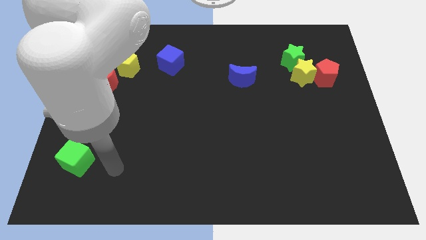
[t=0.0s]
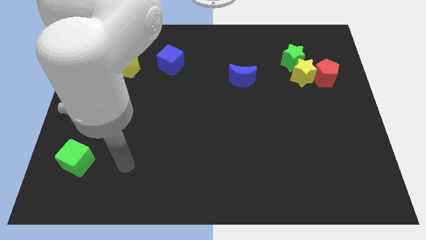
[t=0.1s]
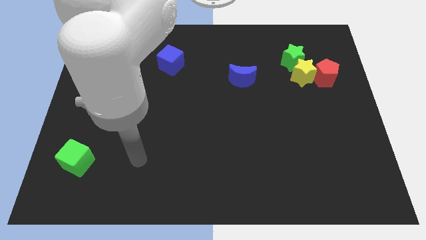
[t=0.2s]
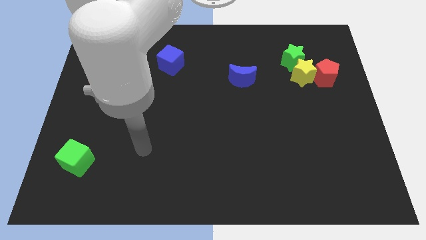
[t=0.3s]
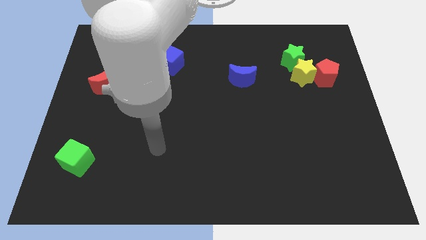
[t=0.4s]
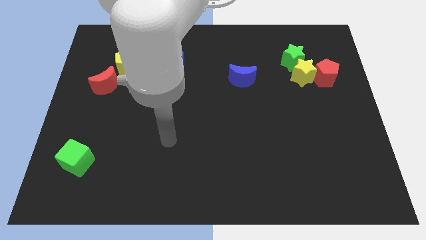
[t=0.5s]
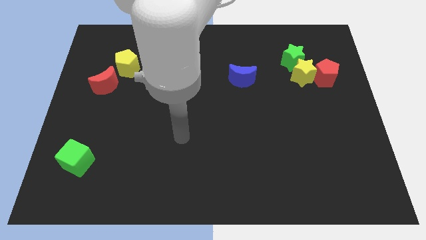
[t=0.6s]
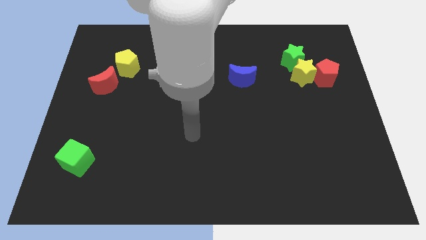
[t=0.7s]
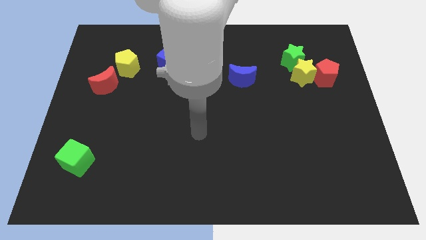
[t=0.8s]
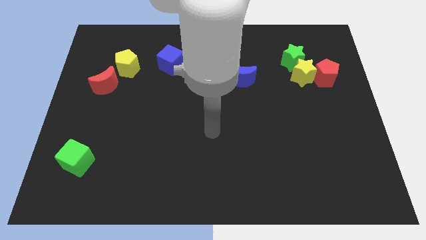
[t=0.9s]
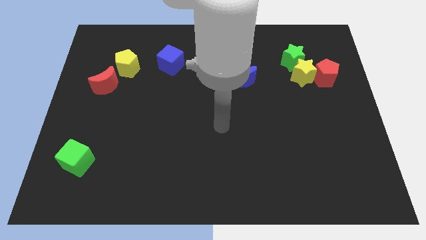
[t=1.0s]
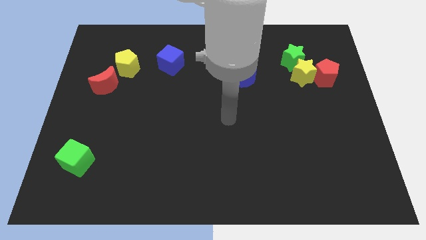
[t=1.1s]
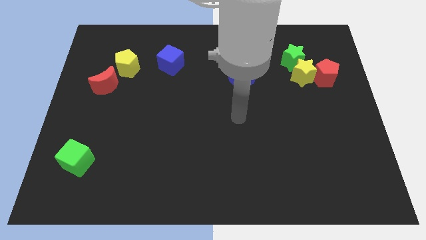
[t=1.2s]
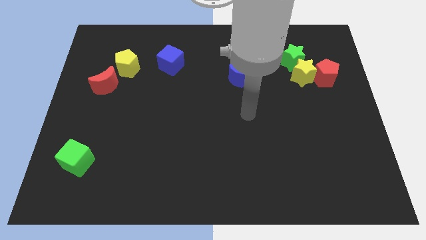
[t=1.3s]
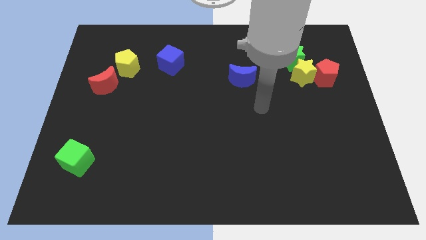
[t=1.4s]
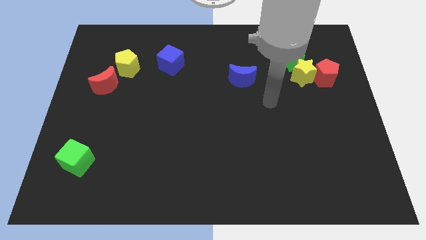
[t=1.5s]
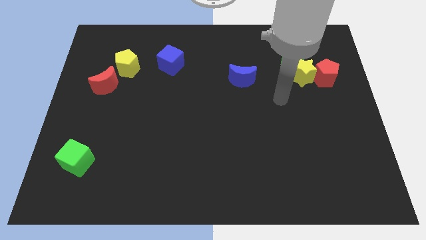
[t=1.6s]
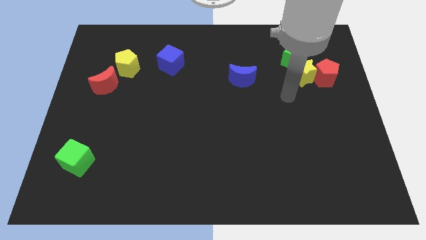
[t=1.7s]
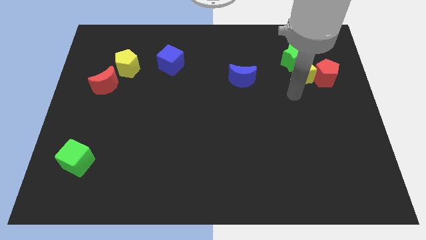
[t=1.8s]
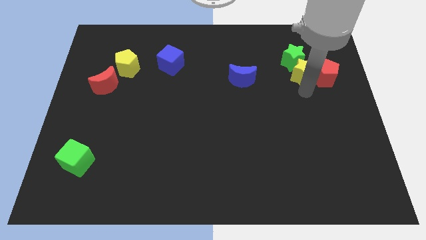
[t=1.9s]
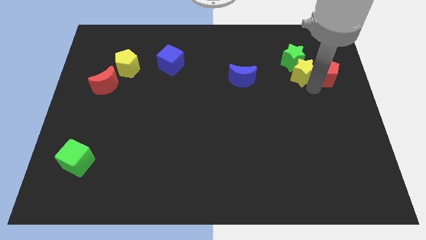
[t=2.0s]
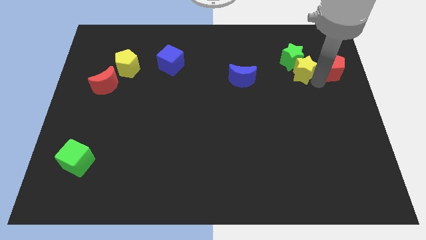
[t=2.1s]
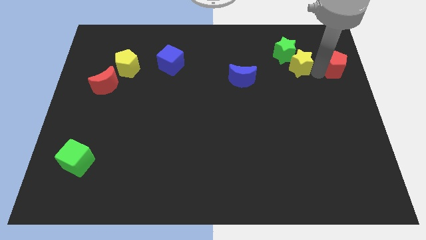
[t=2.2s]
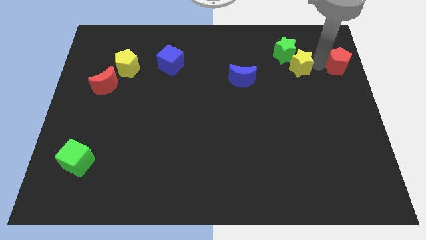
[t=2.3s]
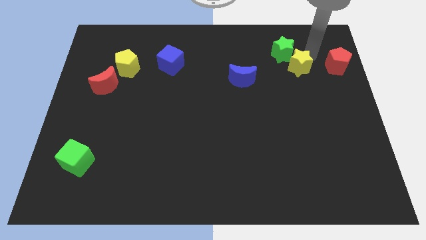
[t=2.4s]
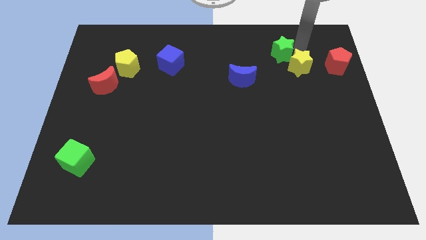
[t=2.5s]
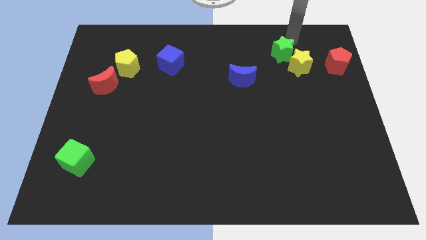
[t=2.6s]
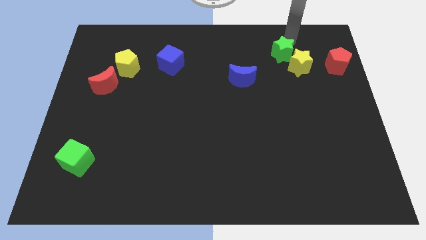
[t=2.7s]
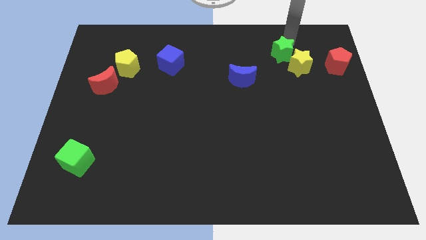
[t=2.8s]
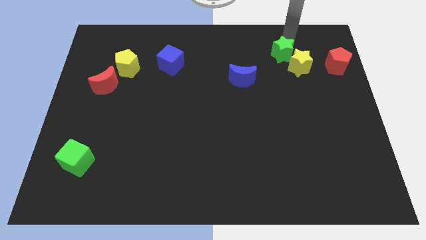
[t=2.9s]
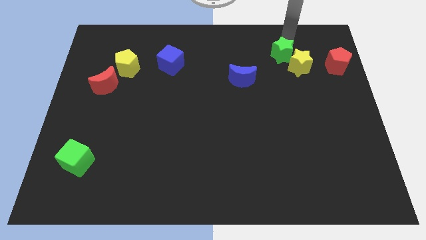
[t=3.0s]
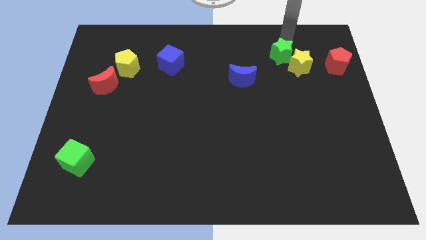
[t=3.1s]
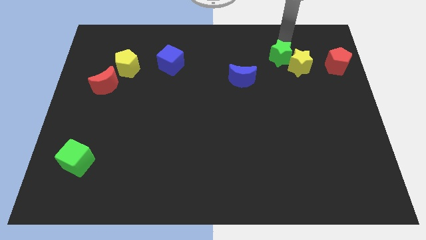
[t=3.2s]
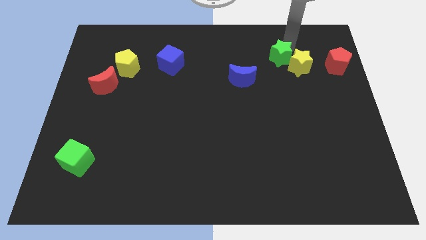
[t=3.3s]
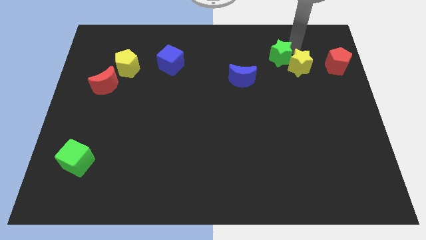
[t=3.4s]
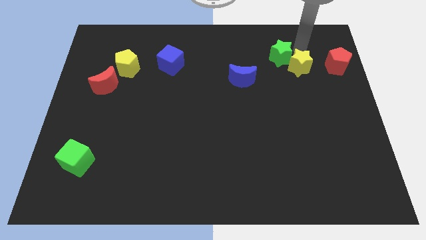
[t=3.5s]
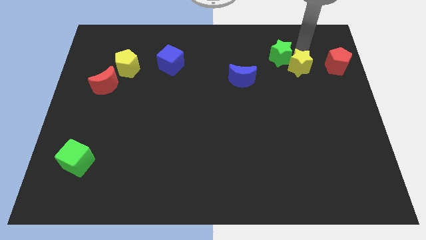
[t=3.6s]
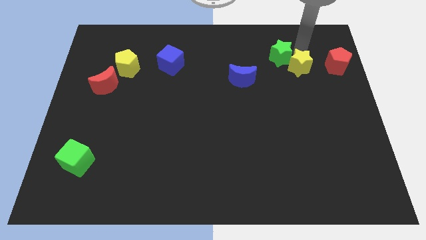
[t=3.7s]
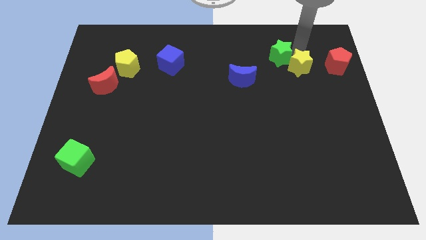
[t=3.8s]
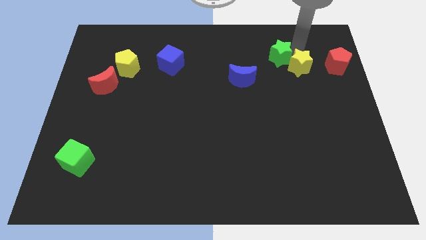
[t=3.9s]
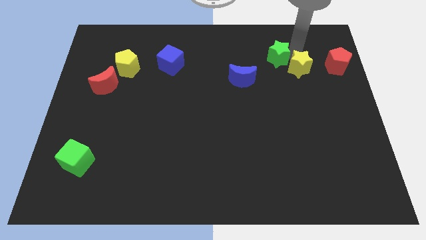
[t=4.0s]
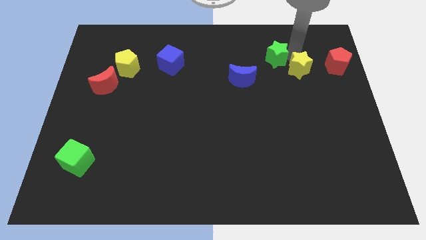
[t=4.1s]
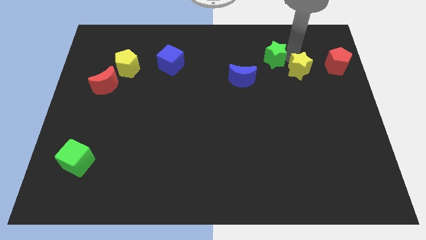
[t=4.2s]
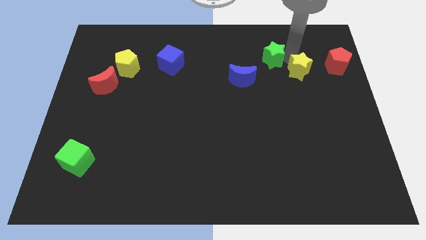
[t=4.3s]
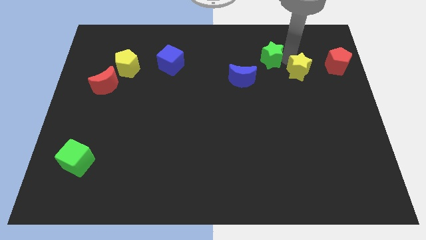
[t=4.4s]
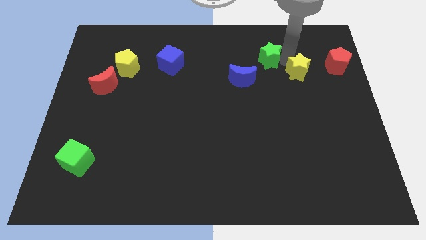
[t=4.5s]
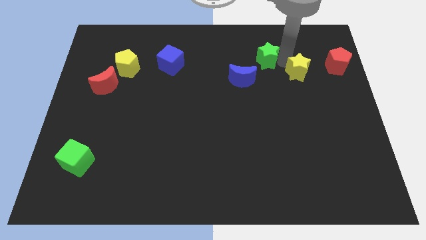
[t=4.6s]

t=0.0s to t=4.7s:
push the green star to the left a bit

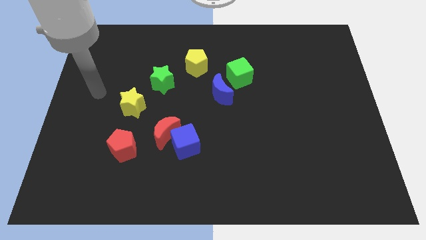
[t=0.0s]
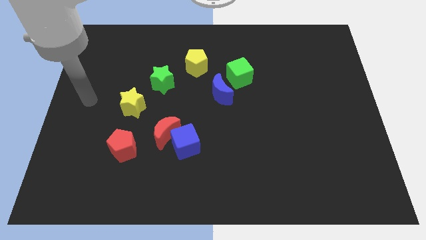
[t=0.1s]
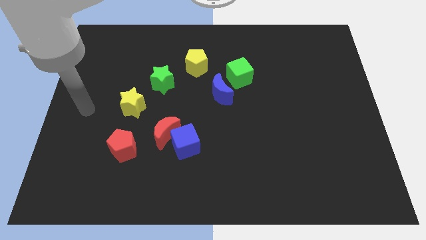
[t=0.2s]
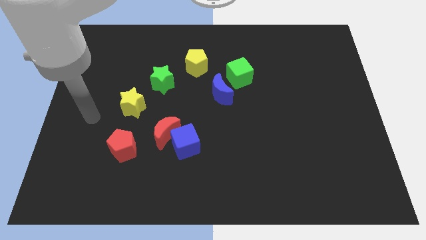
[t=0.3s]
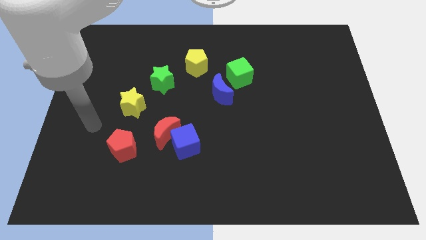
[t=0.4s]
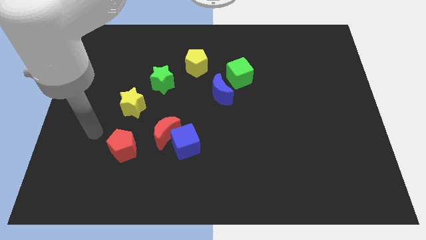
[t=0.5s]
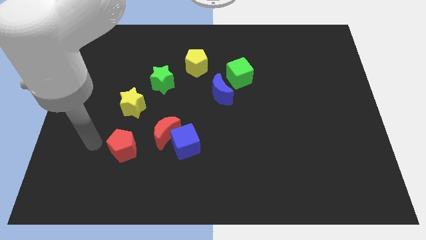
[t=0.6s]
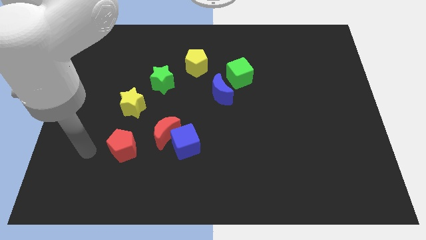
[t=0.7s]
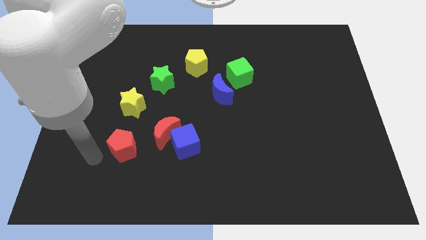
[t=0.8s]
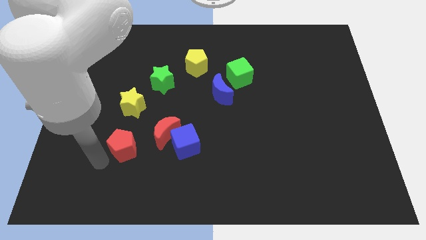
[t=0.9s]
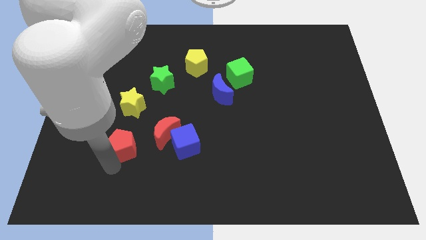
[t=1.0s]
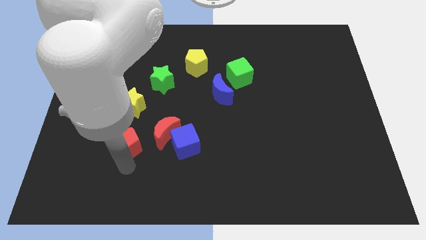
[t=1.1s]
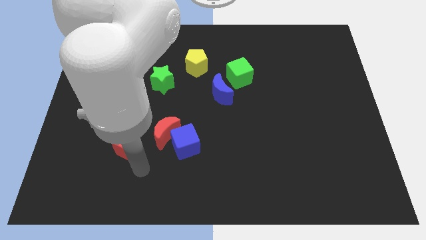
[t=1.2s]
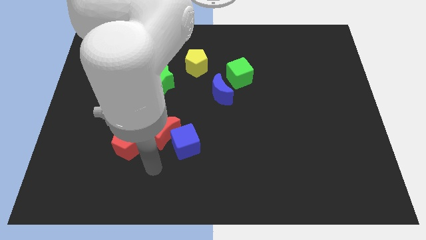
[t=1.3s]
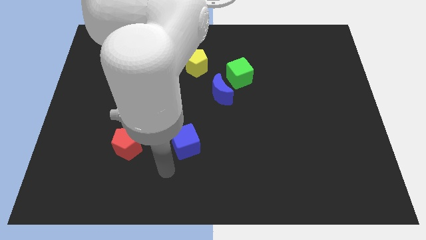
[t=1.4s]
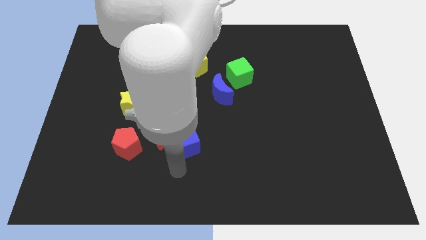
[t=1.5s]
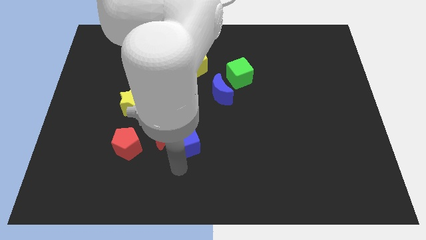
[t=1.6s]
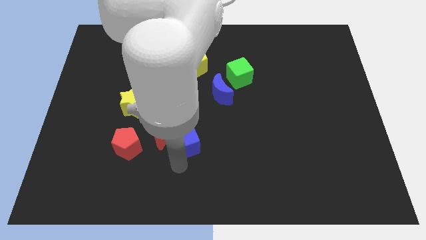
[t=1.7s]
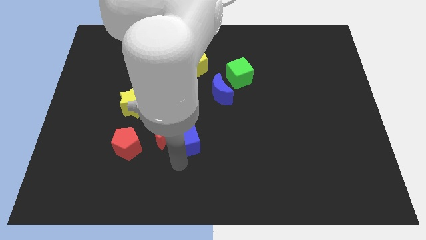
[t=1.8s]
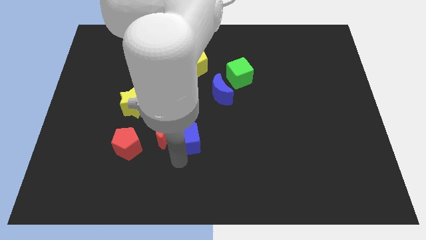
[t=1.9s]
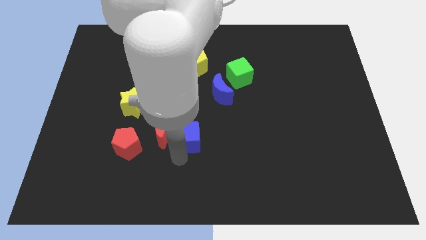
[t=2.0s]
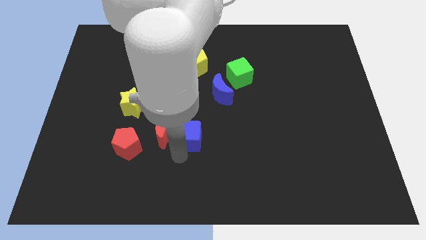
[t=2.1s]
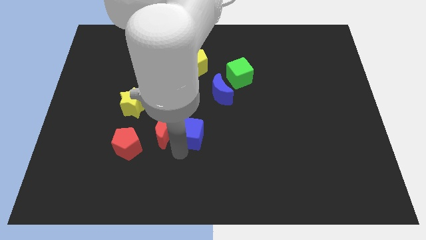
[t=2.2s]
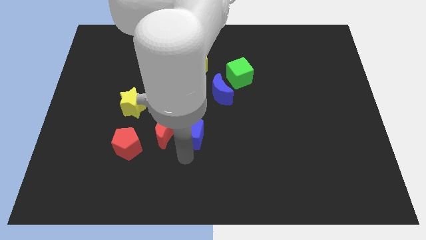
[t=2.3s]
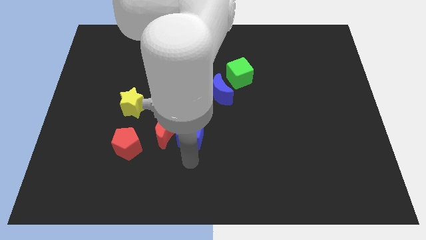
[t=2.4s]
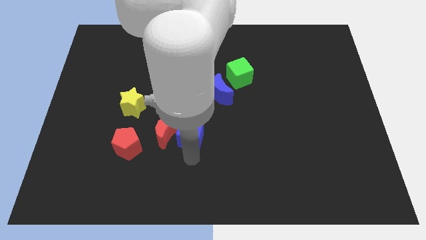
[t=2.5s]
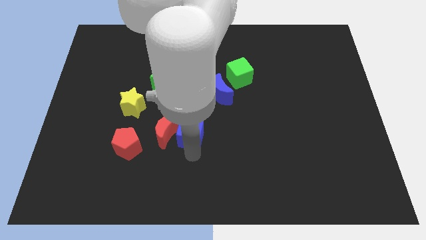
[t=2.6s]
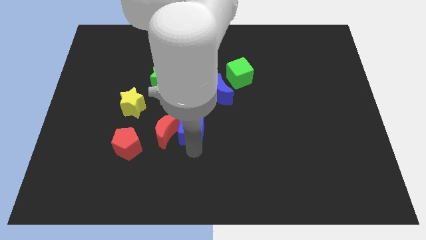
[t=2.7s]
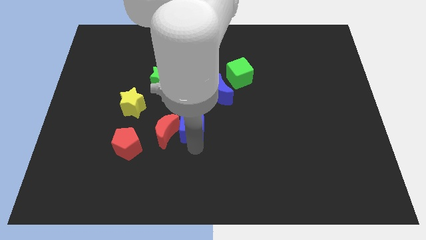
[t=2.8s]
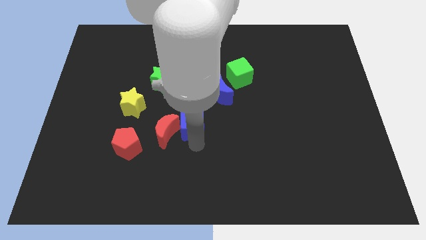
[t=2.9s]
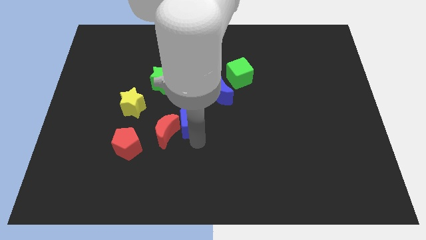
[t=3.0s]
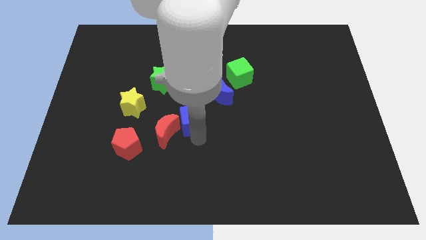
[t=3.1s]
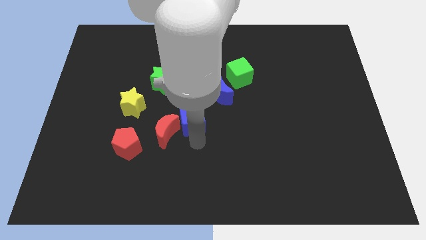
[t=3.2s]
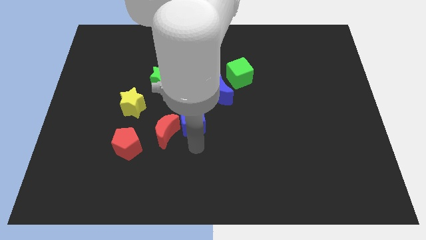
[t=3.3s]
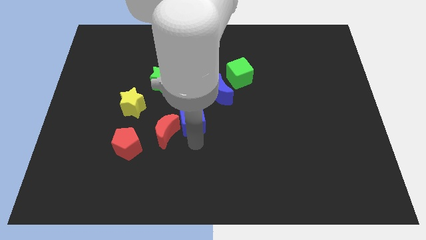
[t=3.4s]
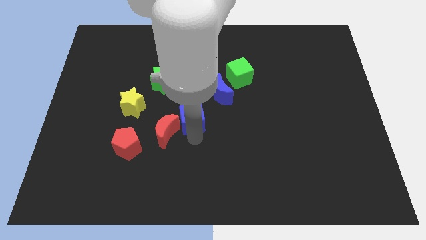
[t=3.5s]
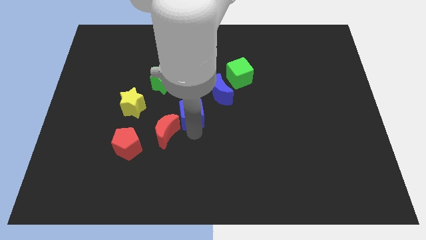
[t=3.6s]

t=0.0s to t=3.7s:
move the blue cube up a little
